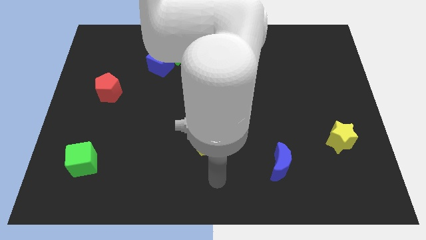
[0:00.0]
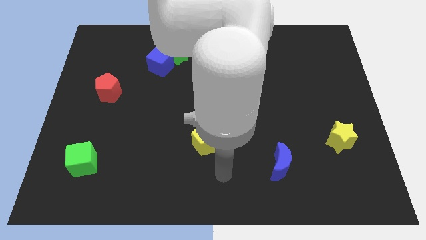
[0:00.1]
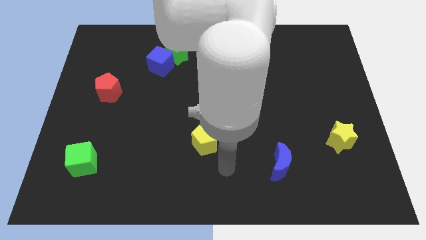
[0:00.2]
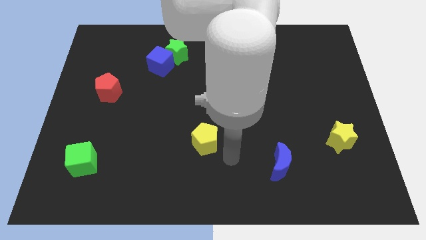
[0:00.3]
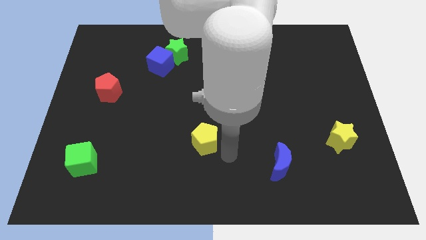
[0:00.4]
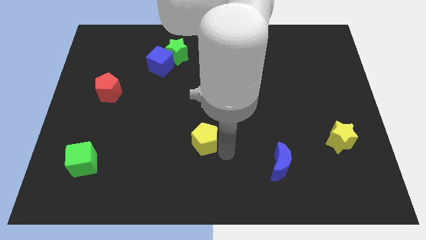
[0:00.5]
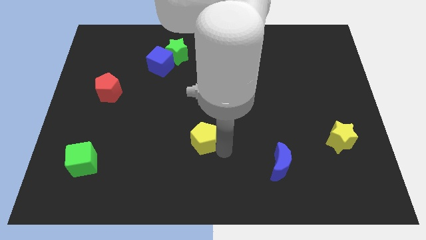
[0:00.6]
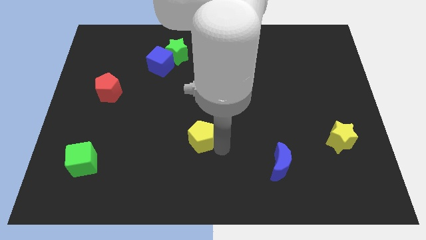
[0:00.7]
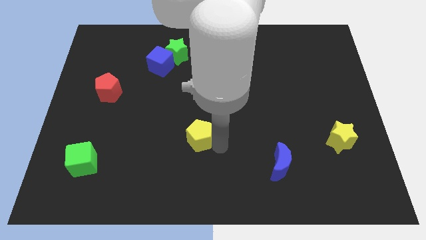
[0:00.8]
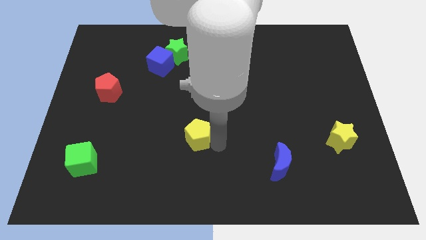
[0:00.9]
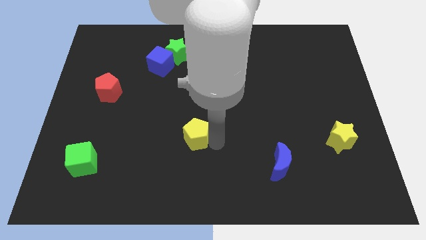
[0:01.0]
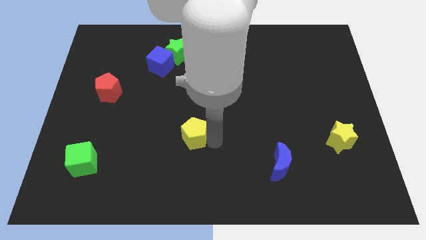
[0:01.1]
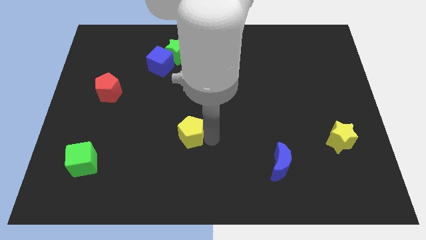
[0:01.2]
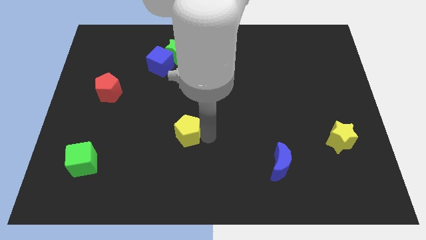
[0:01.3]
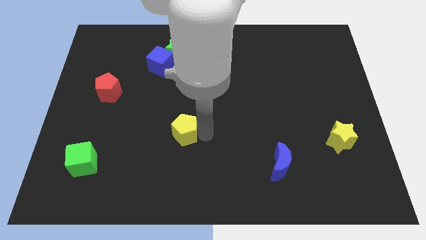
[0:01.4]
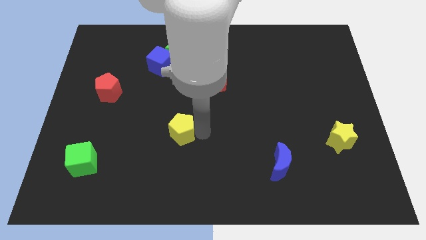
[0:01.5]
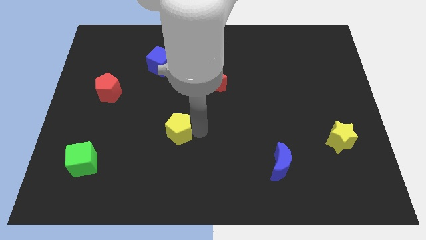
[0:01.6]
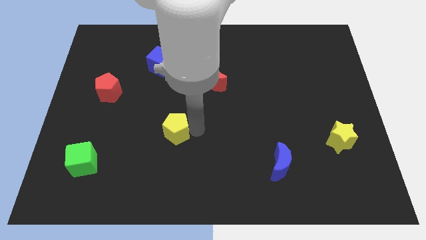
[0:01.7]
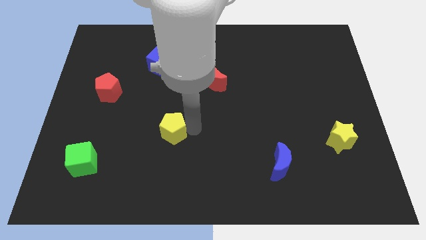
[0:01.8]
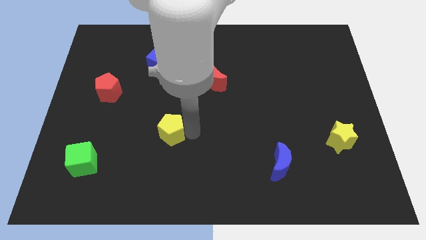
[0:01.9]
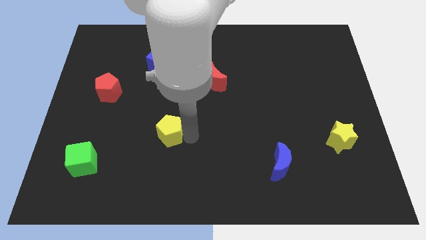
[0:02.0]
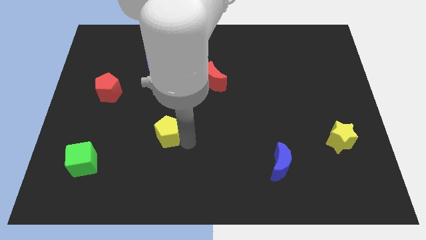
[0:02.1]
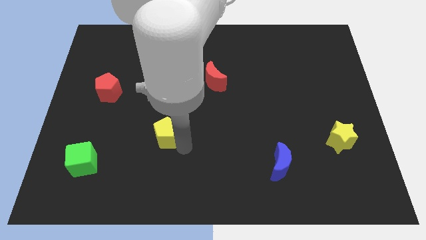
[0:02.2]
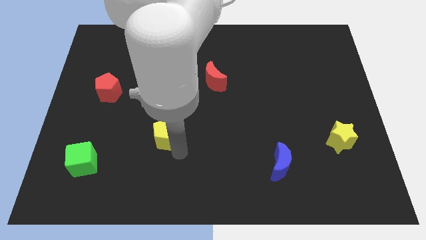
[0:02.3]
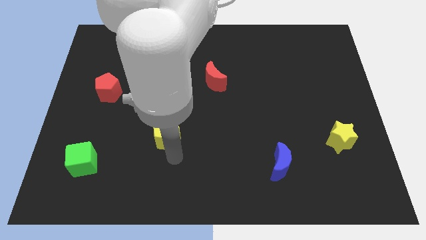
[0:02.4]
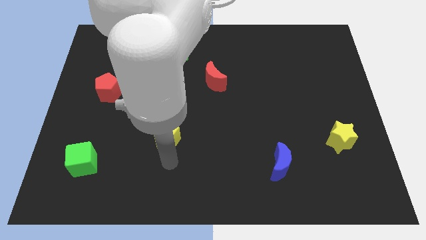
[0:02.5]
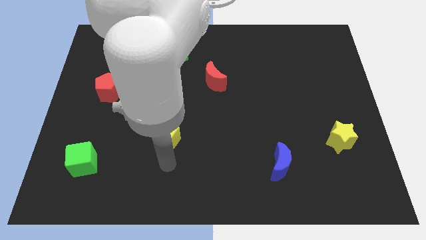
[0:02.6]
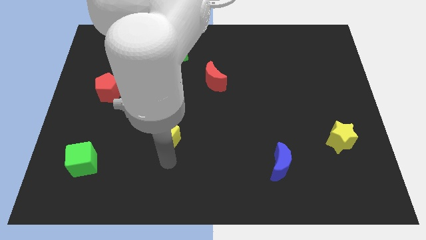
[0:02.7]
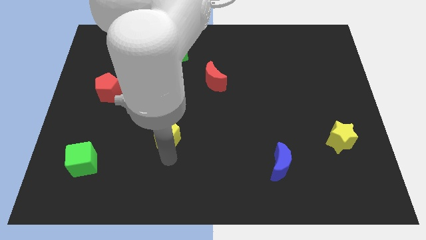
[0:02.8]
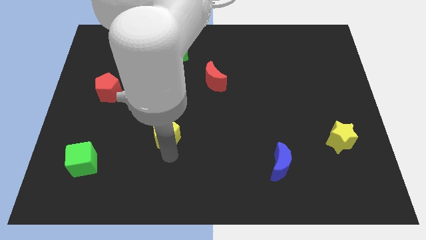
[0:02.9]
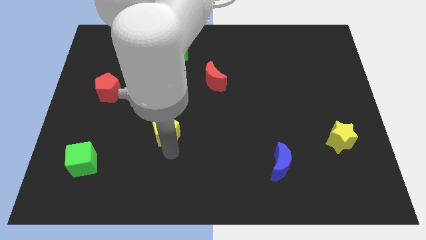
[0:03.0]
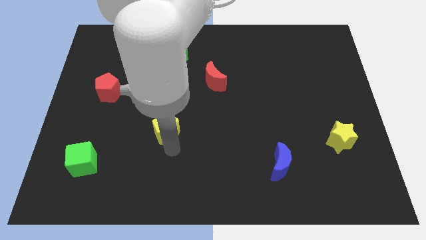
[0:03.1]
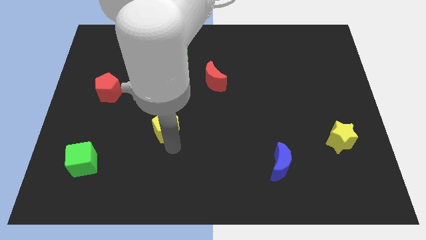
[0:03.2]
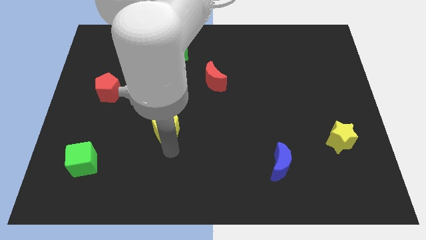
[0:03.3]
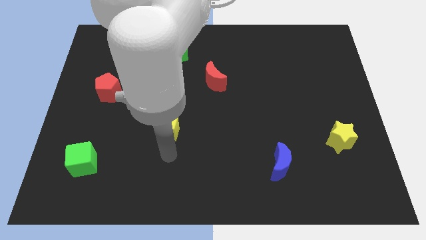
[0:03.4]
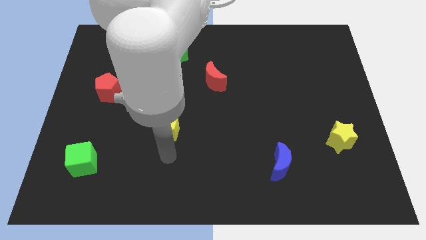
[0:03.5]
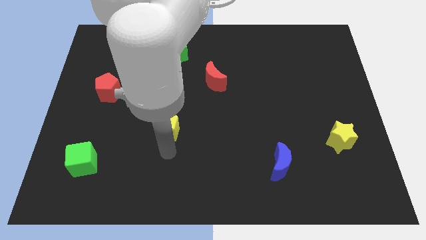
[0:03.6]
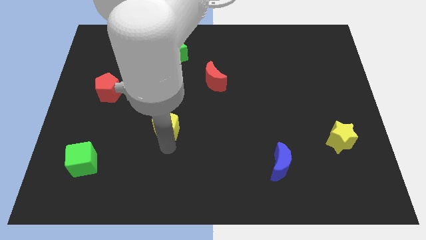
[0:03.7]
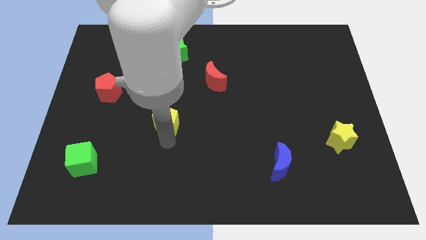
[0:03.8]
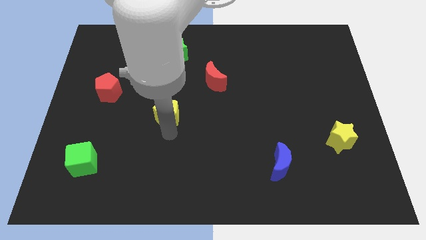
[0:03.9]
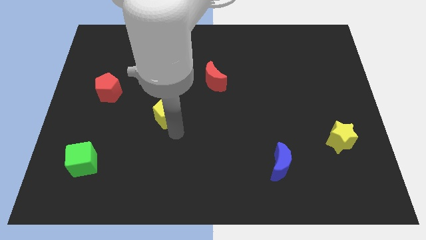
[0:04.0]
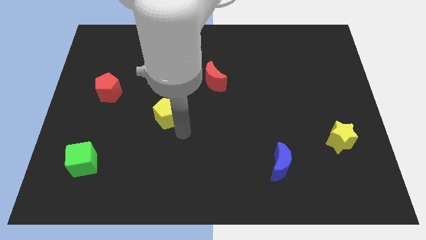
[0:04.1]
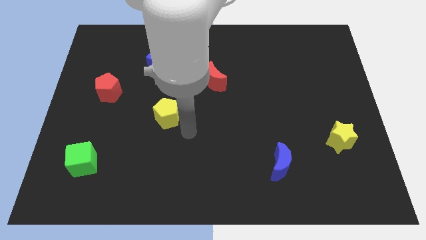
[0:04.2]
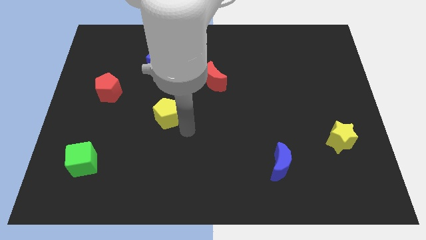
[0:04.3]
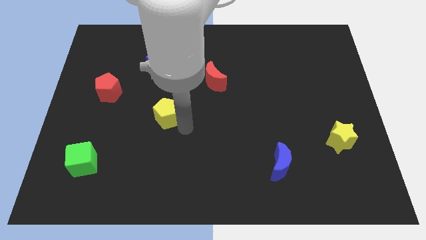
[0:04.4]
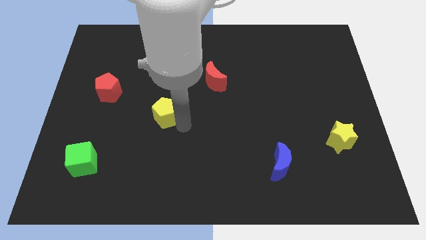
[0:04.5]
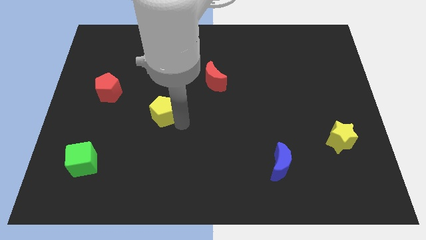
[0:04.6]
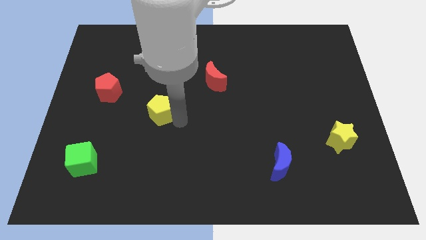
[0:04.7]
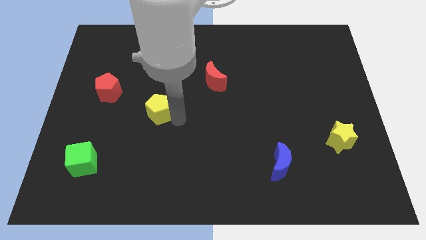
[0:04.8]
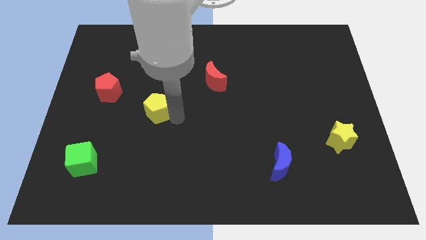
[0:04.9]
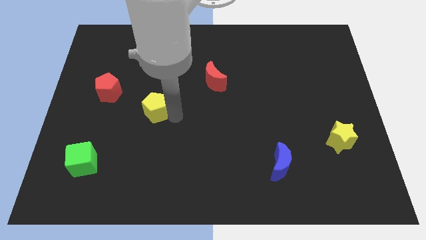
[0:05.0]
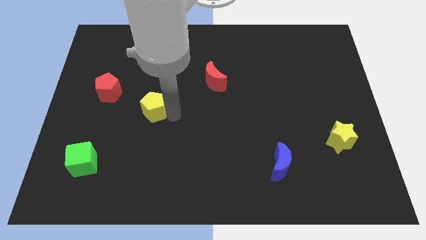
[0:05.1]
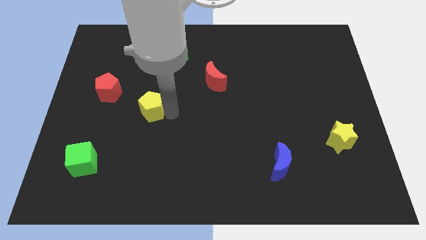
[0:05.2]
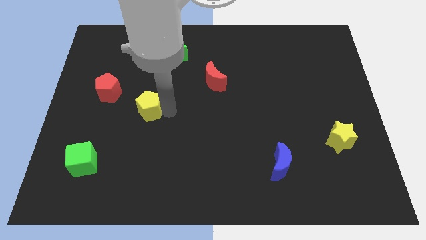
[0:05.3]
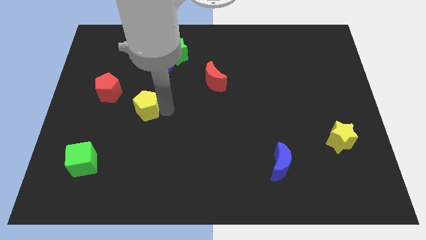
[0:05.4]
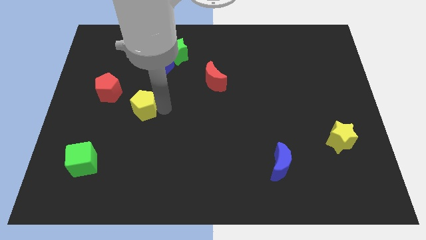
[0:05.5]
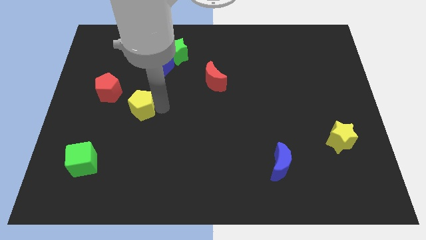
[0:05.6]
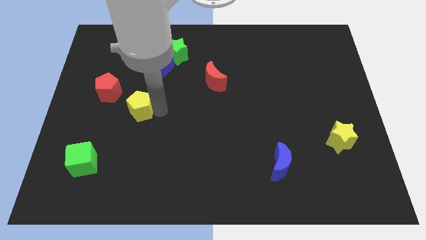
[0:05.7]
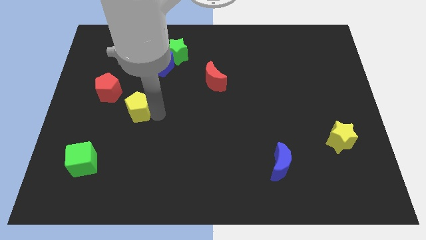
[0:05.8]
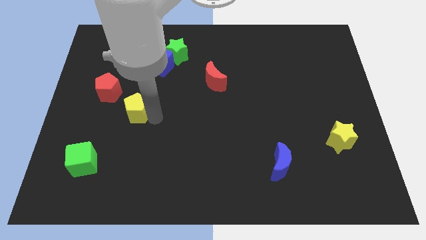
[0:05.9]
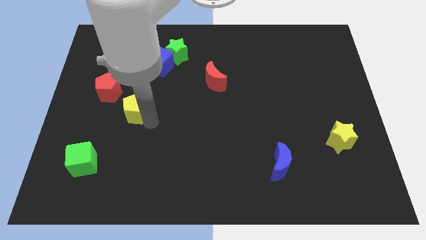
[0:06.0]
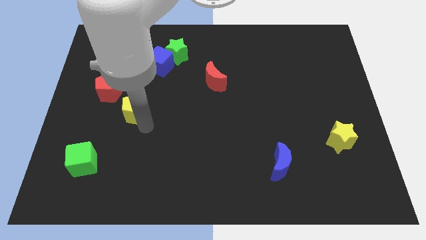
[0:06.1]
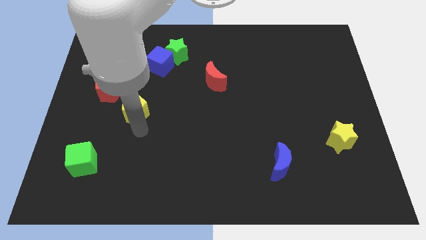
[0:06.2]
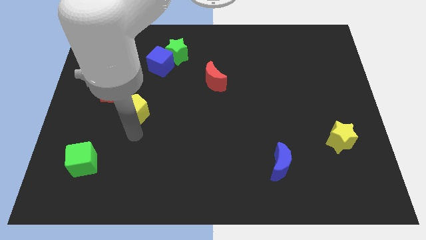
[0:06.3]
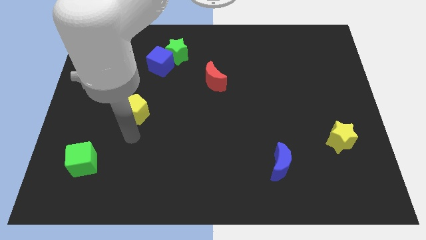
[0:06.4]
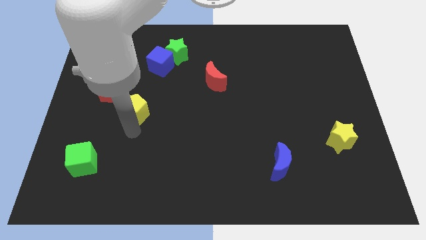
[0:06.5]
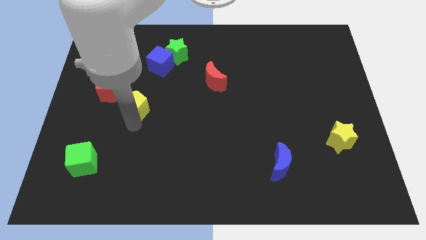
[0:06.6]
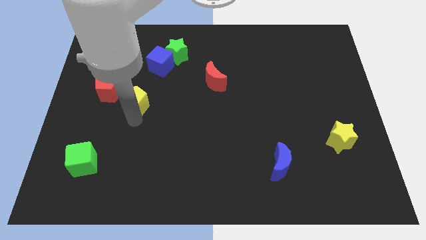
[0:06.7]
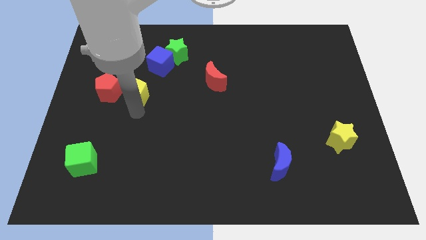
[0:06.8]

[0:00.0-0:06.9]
push the yellow pentagon up and then left

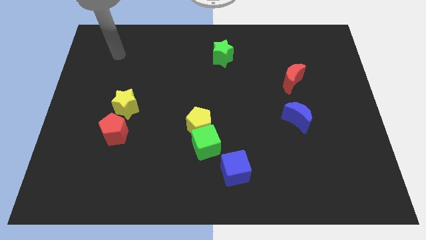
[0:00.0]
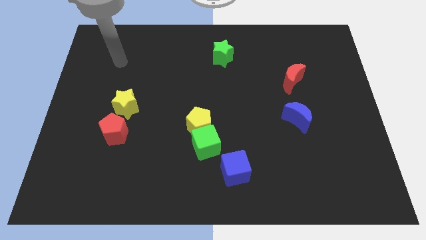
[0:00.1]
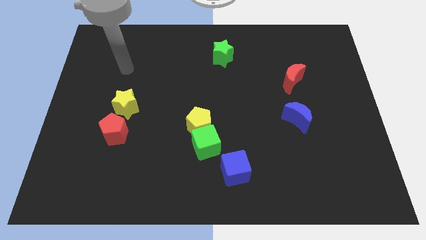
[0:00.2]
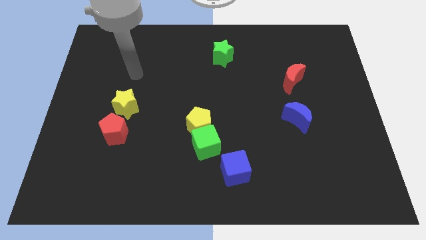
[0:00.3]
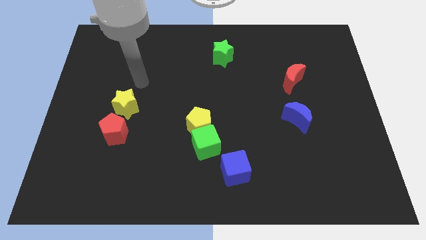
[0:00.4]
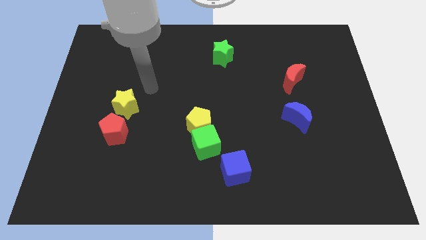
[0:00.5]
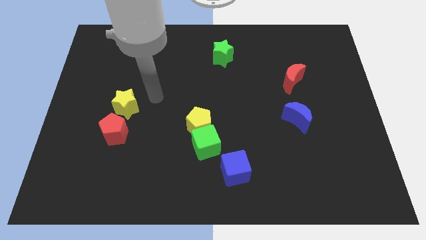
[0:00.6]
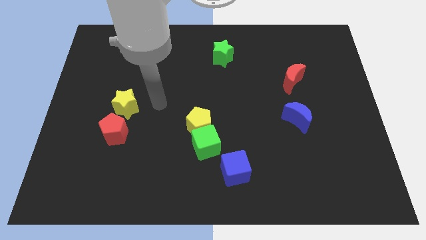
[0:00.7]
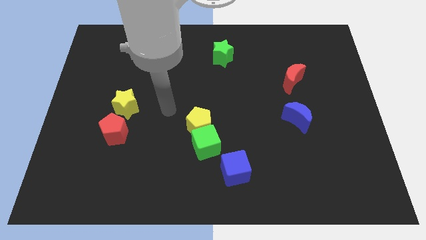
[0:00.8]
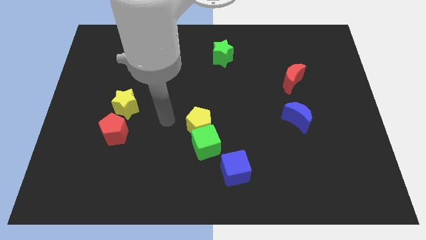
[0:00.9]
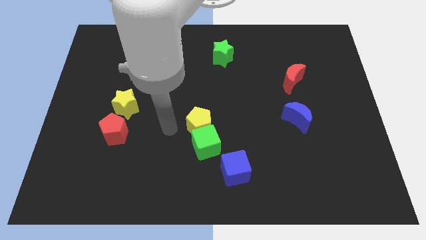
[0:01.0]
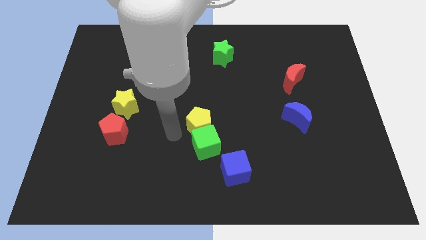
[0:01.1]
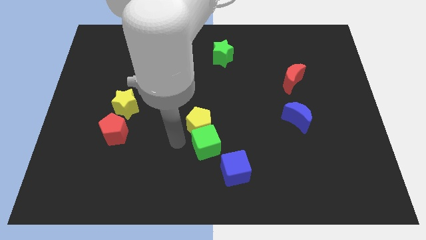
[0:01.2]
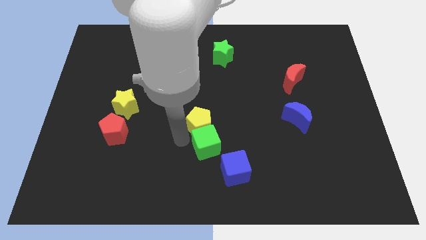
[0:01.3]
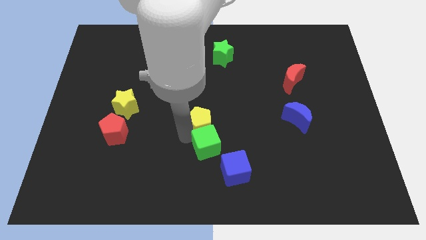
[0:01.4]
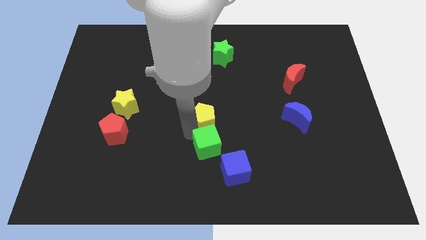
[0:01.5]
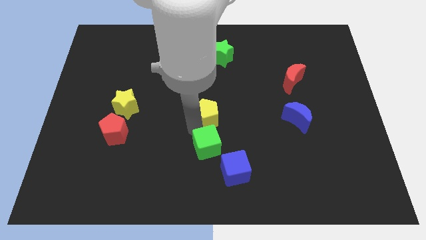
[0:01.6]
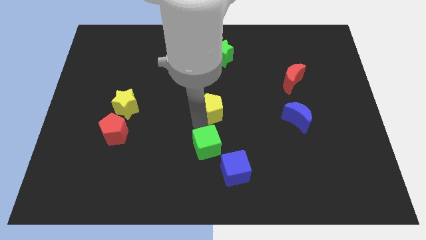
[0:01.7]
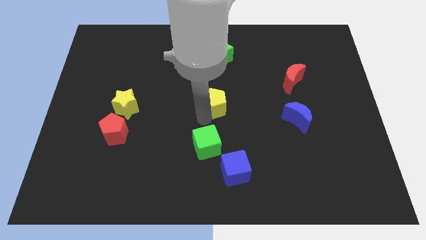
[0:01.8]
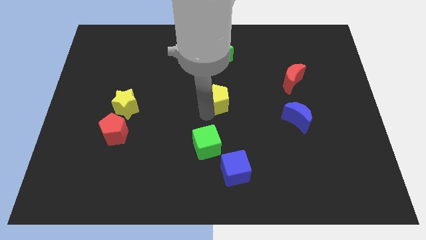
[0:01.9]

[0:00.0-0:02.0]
slide the yellow pentagon a bit up and then to the right
